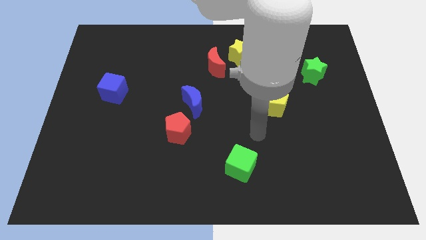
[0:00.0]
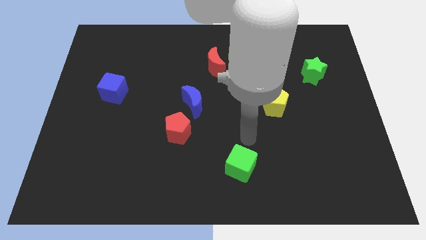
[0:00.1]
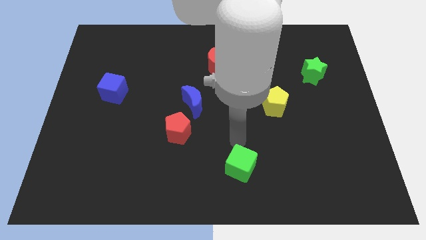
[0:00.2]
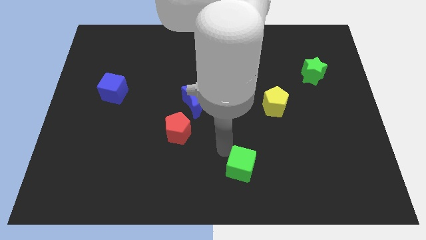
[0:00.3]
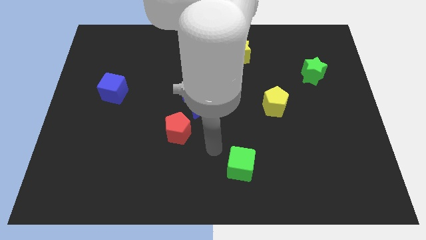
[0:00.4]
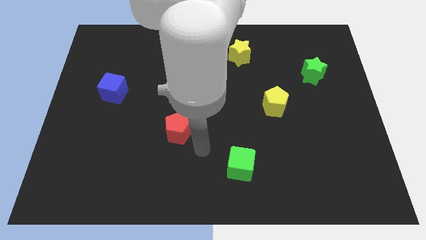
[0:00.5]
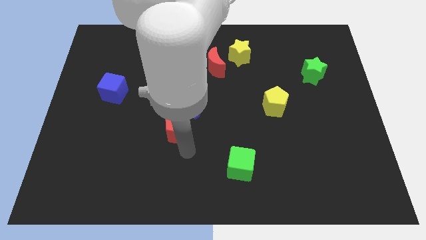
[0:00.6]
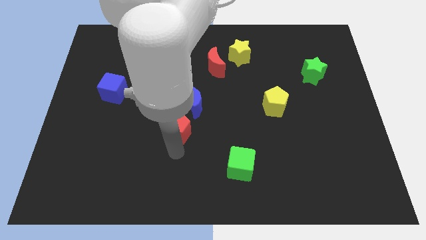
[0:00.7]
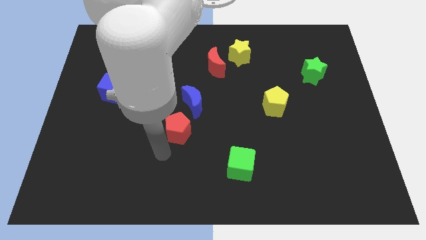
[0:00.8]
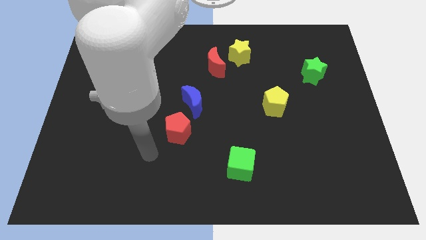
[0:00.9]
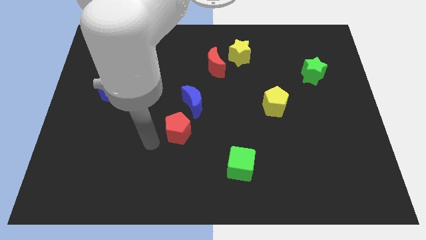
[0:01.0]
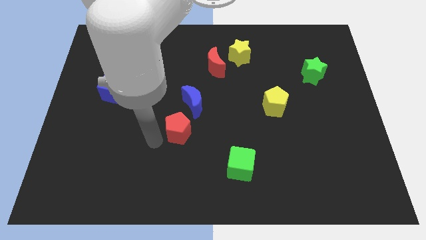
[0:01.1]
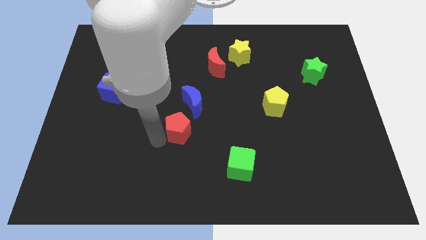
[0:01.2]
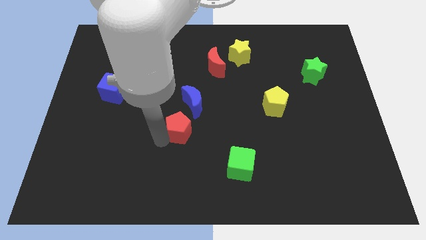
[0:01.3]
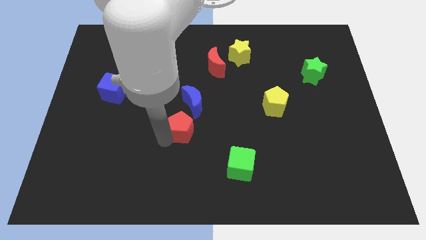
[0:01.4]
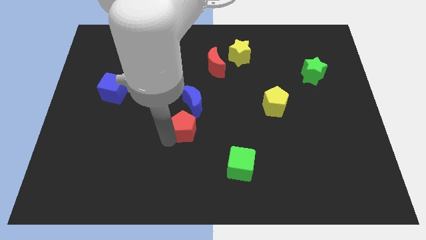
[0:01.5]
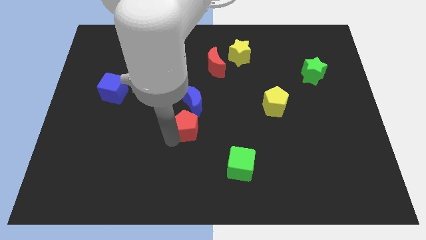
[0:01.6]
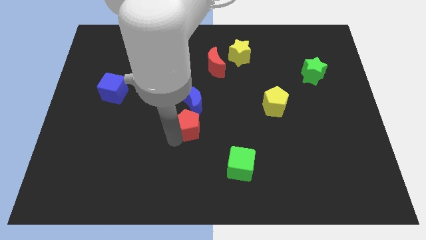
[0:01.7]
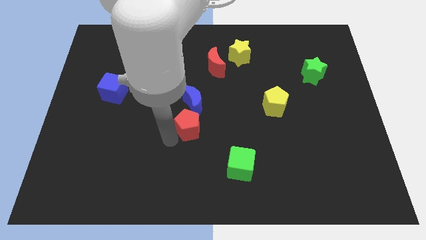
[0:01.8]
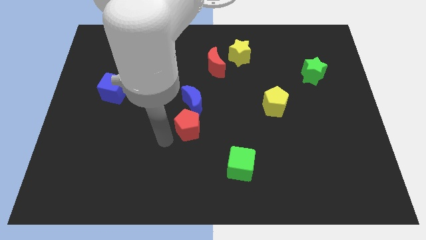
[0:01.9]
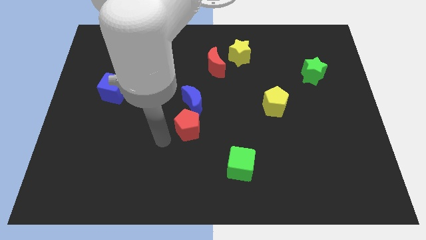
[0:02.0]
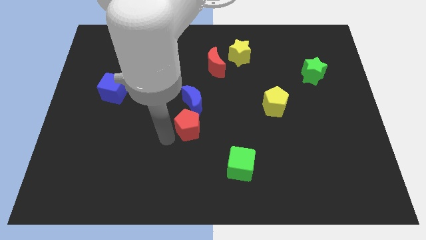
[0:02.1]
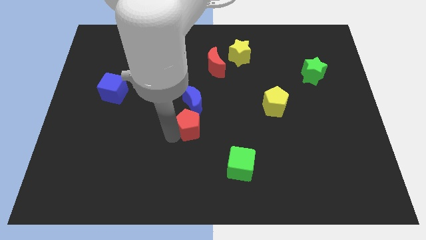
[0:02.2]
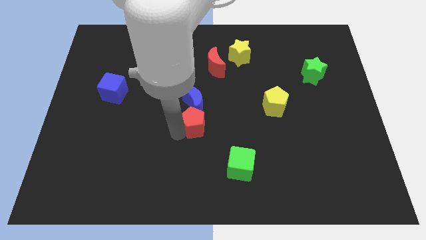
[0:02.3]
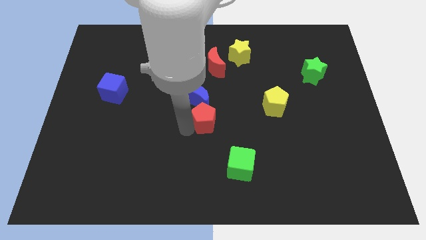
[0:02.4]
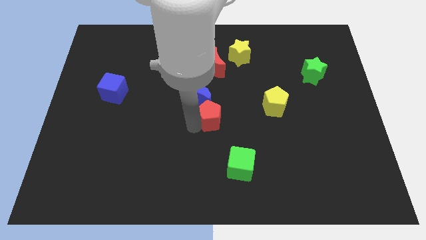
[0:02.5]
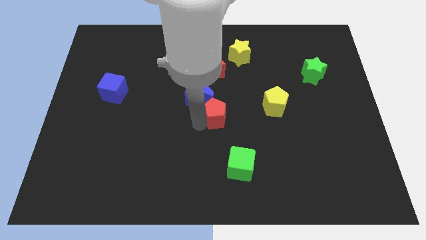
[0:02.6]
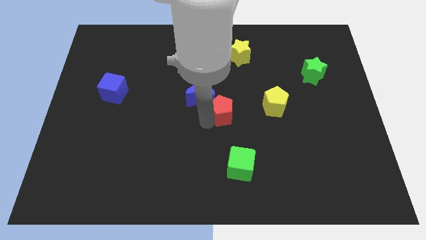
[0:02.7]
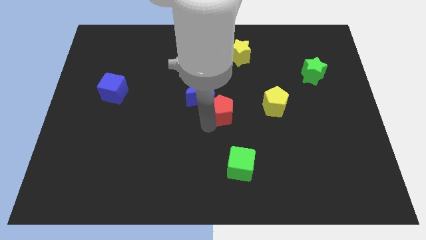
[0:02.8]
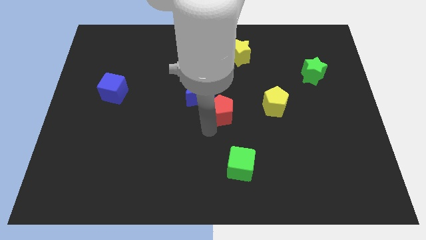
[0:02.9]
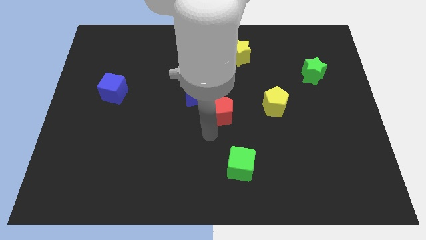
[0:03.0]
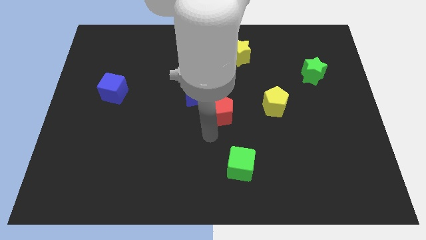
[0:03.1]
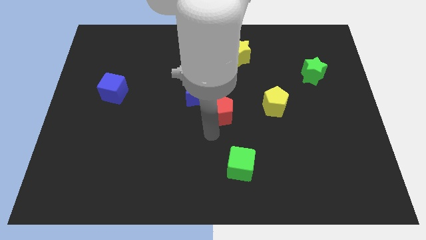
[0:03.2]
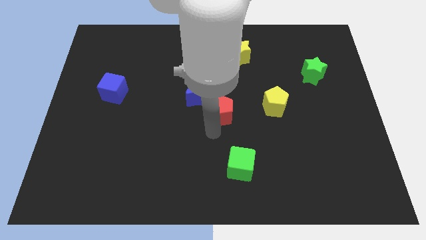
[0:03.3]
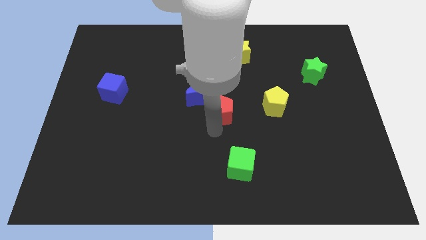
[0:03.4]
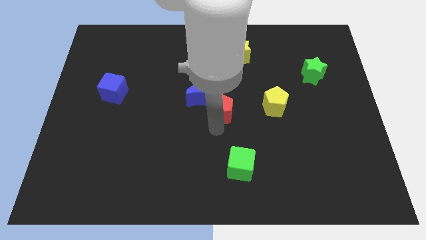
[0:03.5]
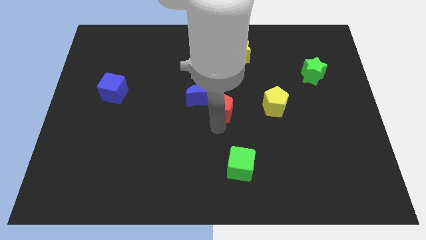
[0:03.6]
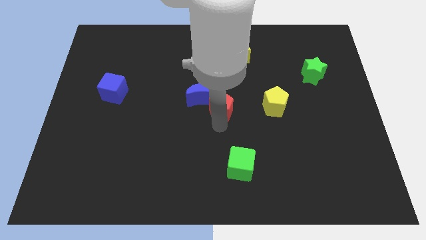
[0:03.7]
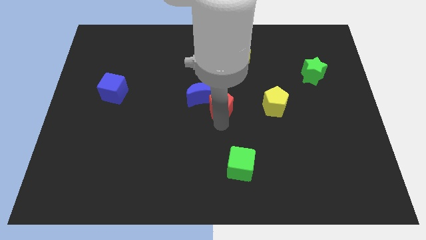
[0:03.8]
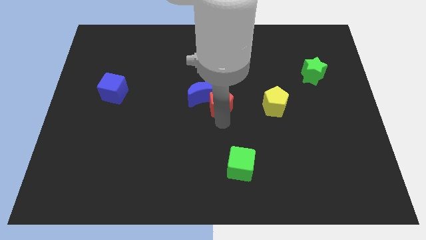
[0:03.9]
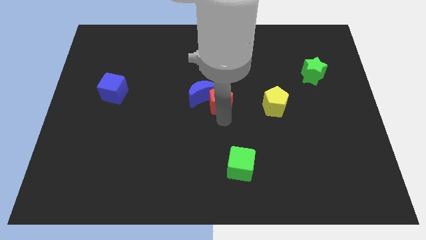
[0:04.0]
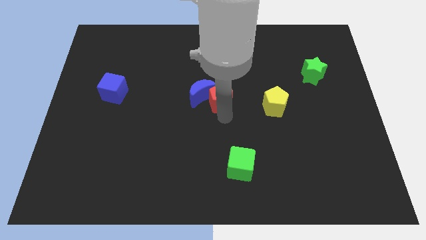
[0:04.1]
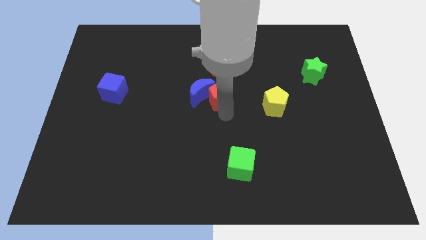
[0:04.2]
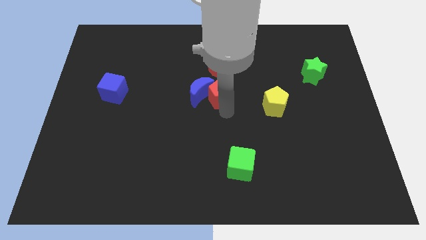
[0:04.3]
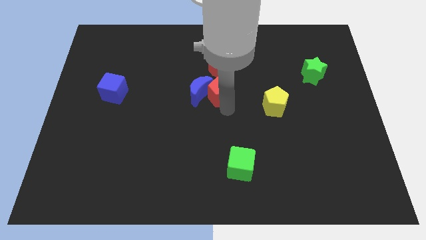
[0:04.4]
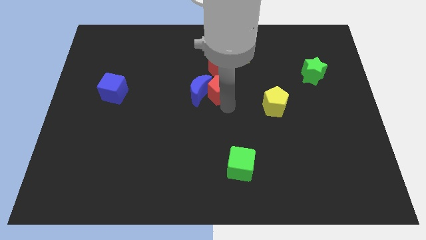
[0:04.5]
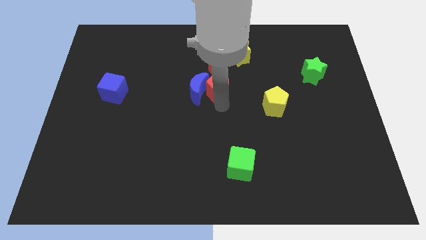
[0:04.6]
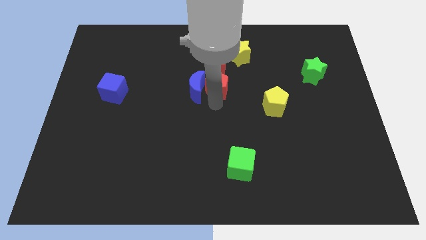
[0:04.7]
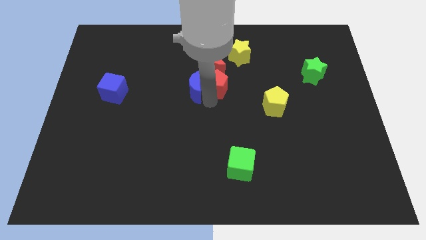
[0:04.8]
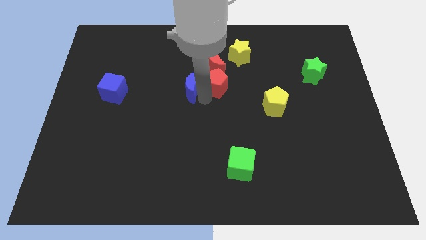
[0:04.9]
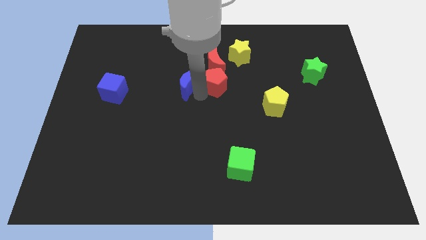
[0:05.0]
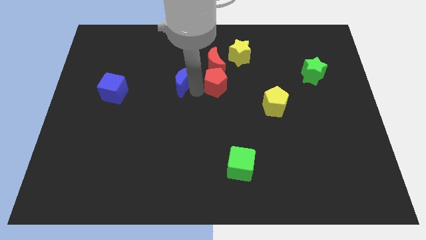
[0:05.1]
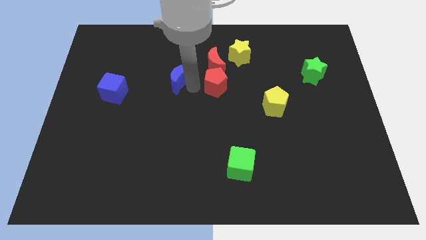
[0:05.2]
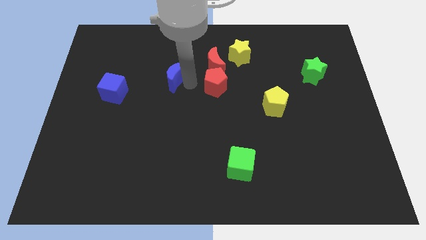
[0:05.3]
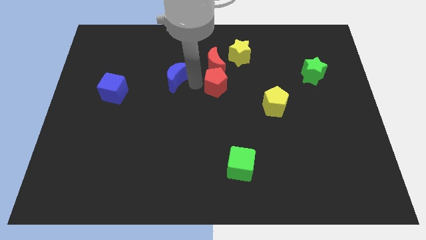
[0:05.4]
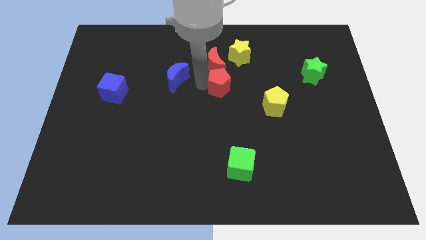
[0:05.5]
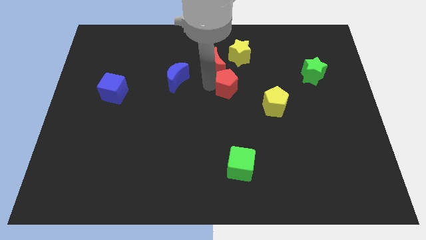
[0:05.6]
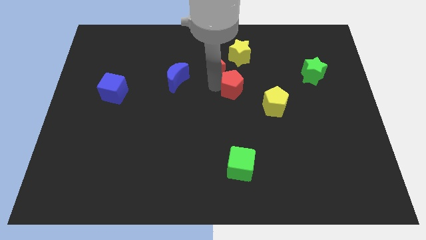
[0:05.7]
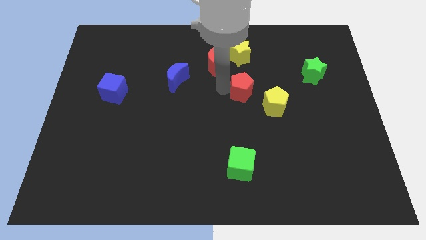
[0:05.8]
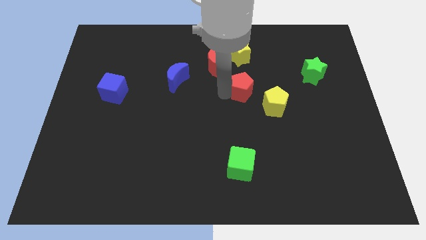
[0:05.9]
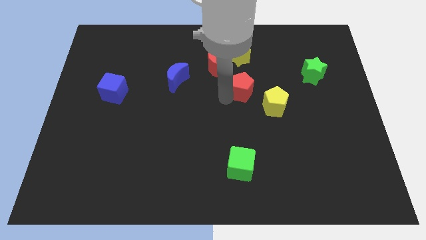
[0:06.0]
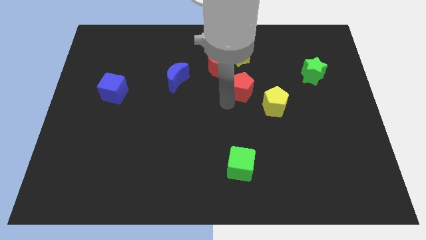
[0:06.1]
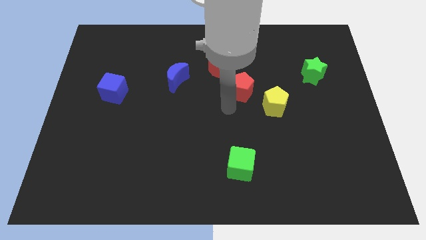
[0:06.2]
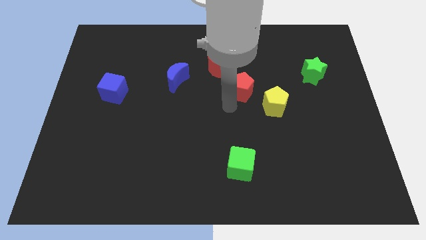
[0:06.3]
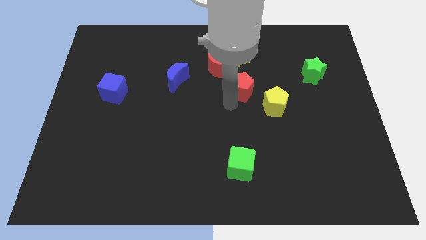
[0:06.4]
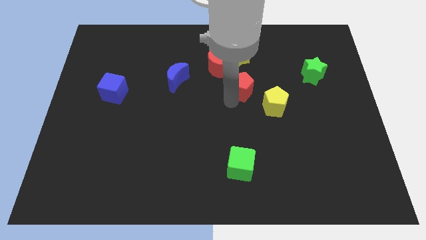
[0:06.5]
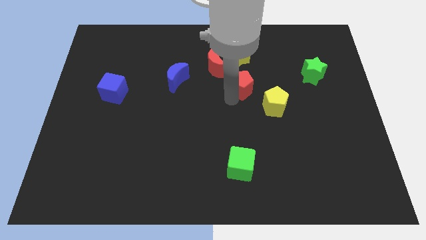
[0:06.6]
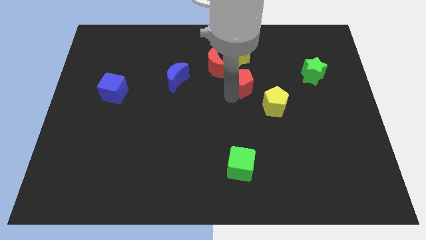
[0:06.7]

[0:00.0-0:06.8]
push the red pentagon diagonally upwards and to the right

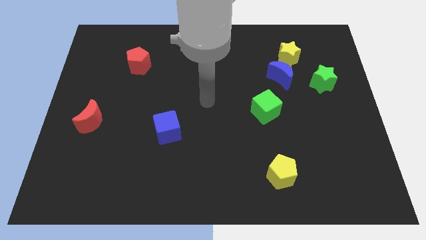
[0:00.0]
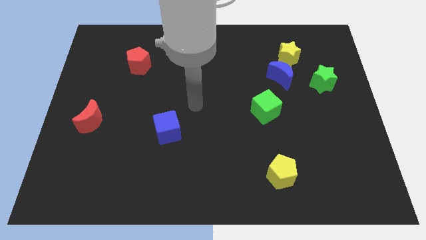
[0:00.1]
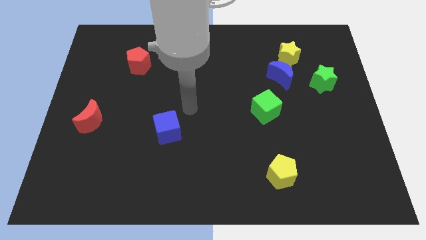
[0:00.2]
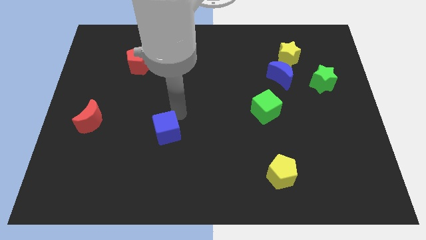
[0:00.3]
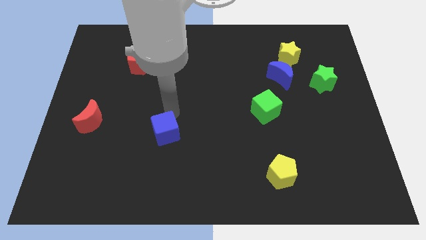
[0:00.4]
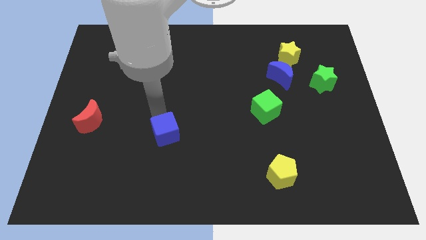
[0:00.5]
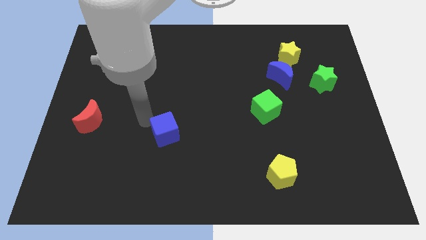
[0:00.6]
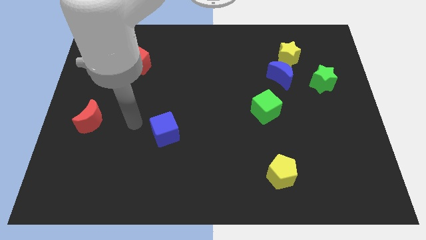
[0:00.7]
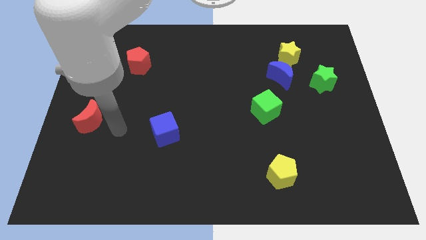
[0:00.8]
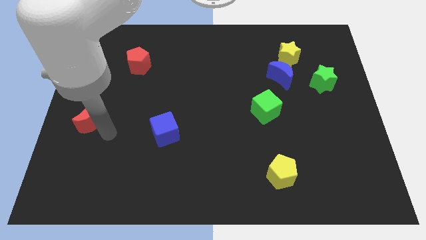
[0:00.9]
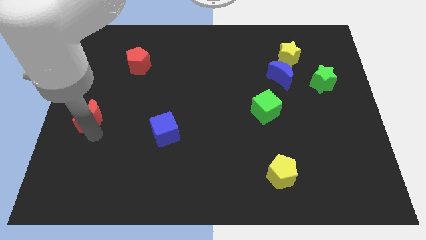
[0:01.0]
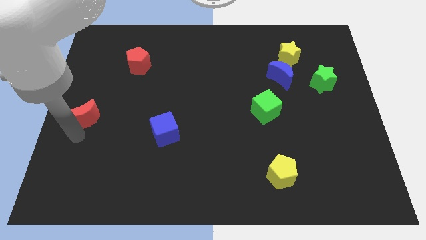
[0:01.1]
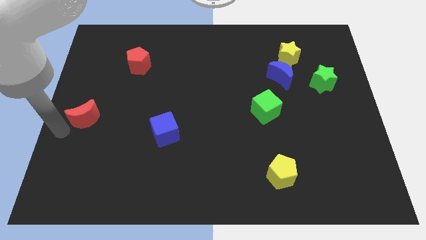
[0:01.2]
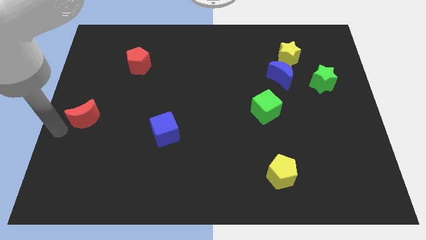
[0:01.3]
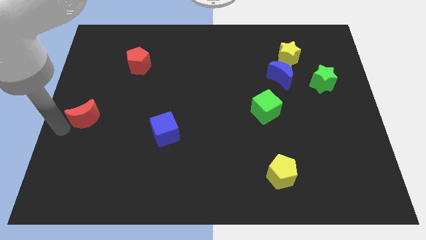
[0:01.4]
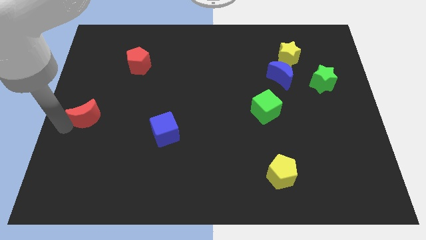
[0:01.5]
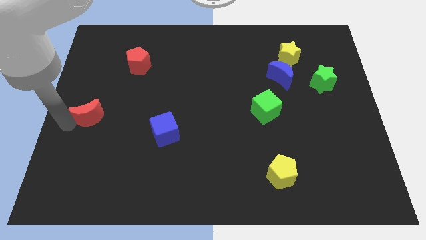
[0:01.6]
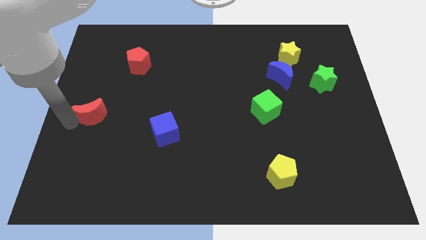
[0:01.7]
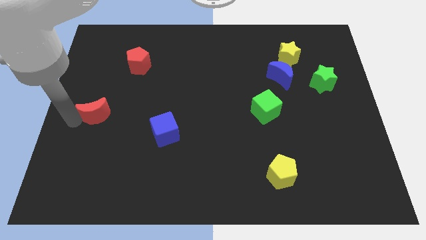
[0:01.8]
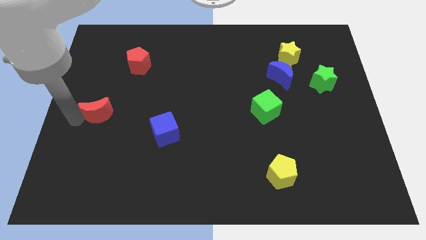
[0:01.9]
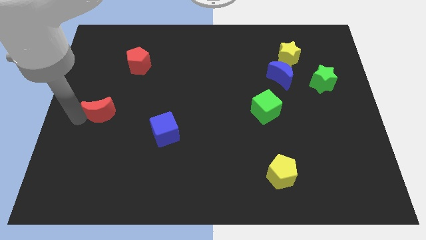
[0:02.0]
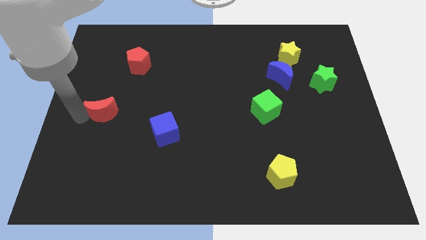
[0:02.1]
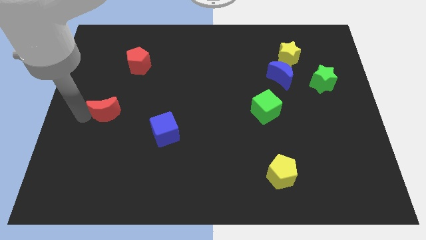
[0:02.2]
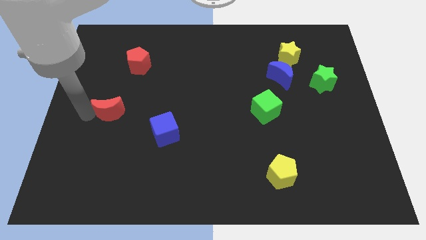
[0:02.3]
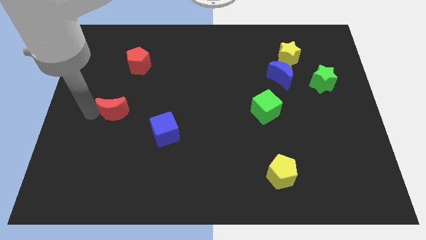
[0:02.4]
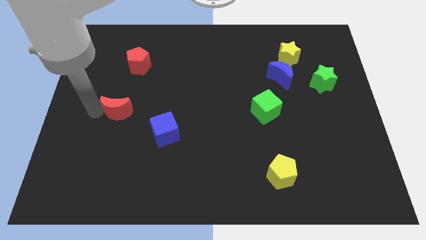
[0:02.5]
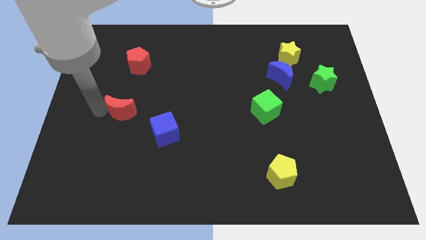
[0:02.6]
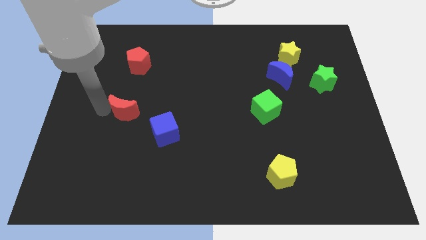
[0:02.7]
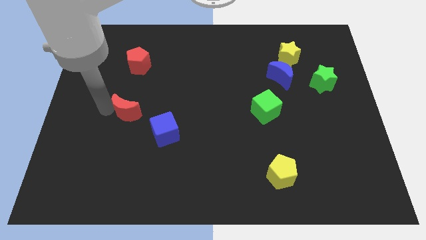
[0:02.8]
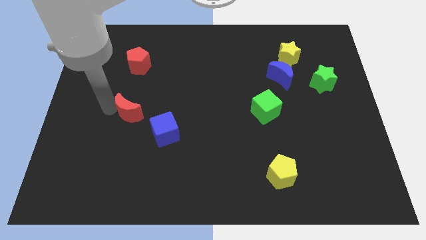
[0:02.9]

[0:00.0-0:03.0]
push the red moon somewhat diagonally up and to the right
